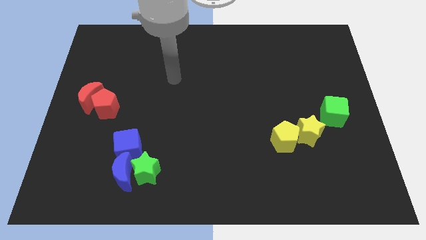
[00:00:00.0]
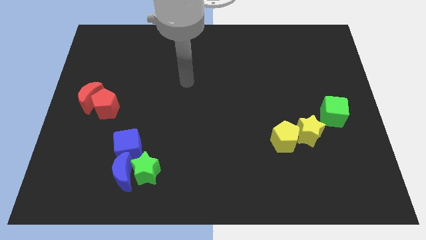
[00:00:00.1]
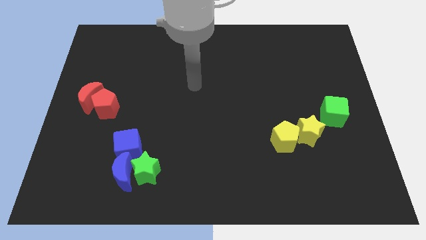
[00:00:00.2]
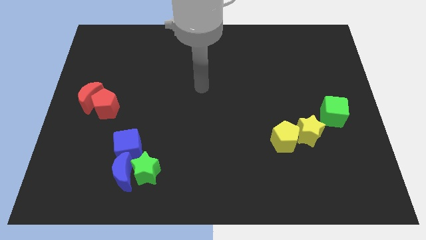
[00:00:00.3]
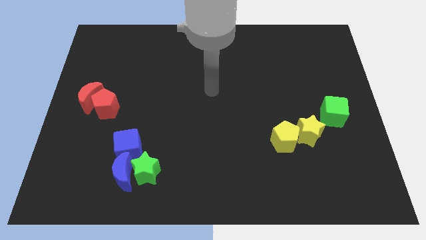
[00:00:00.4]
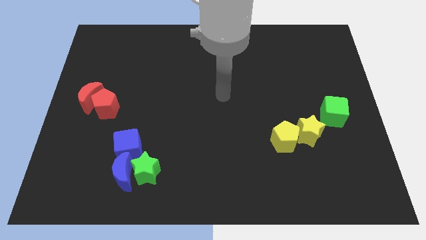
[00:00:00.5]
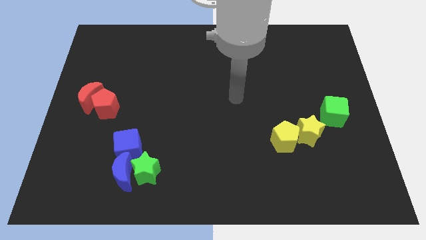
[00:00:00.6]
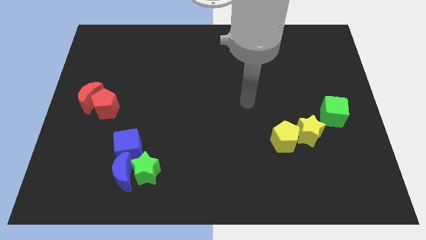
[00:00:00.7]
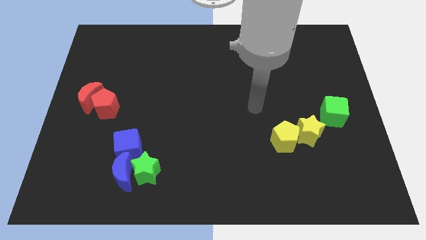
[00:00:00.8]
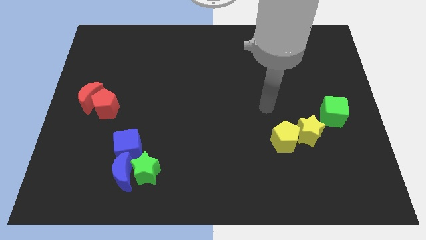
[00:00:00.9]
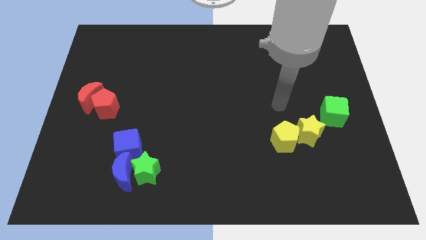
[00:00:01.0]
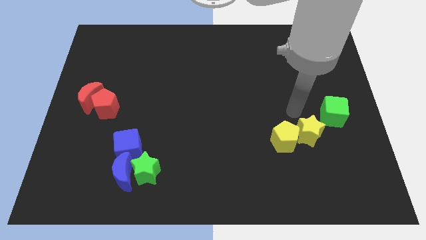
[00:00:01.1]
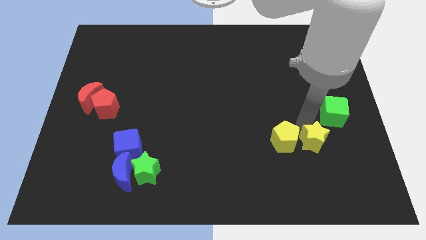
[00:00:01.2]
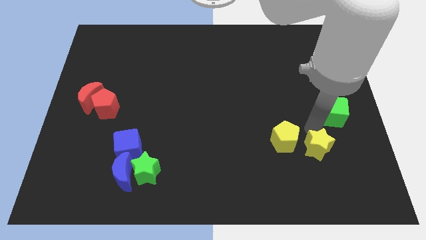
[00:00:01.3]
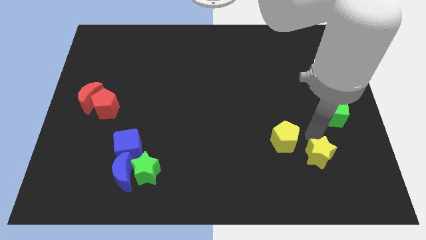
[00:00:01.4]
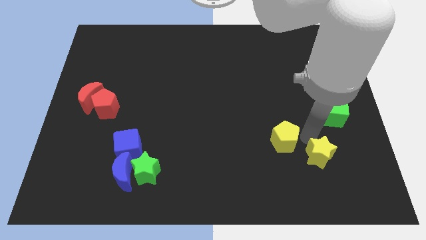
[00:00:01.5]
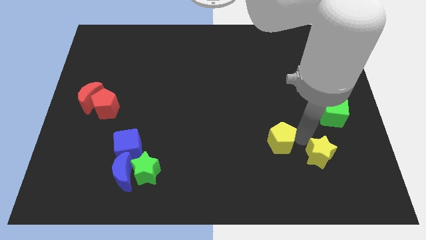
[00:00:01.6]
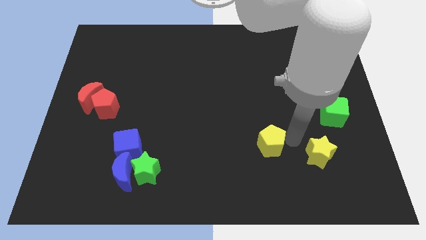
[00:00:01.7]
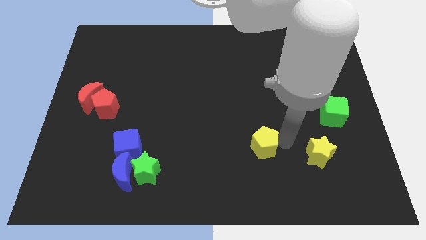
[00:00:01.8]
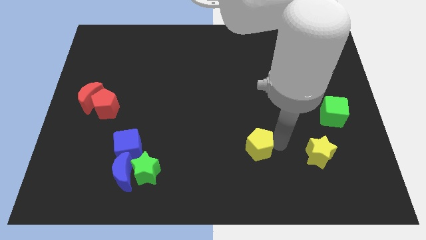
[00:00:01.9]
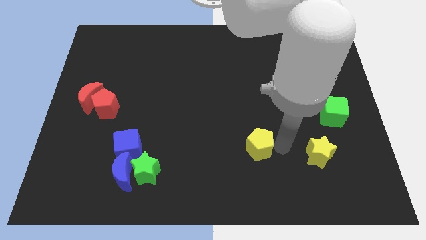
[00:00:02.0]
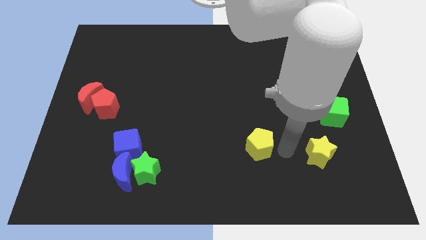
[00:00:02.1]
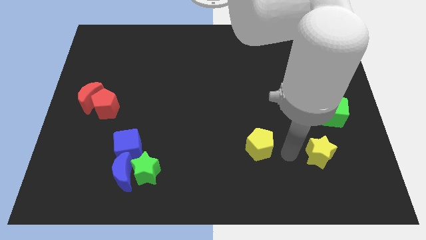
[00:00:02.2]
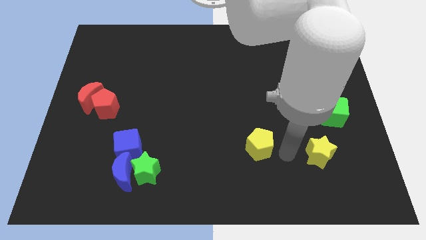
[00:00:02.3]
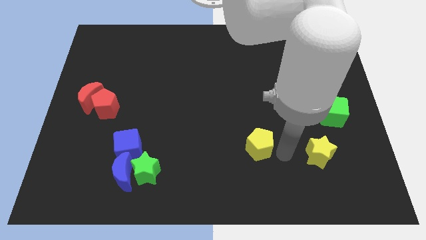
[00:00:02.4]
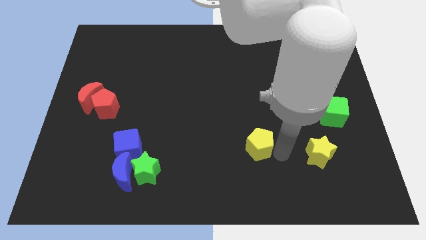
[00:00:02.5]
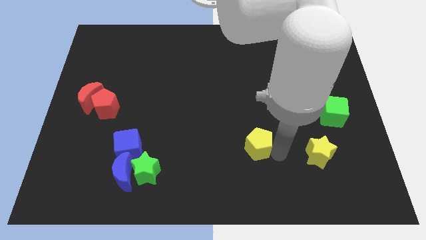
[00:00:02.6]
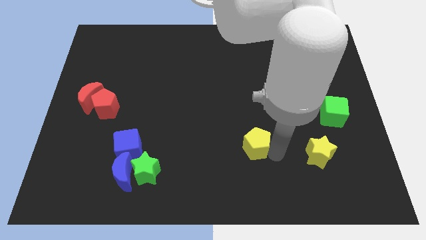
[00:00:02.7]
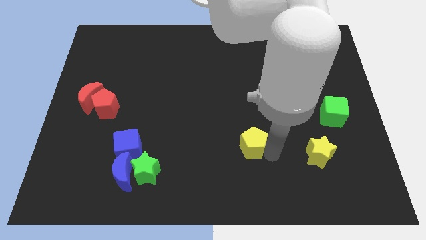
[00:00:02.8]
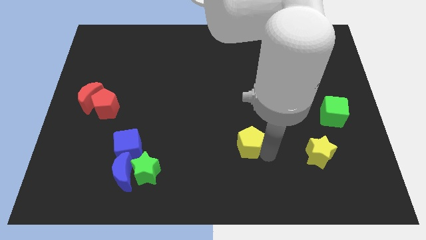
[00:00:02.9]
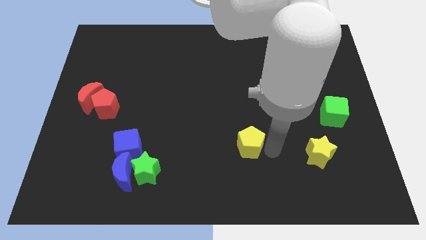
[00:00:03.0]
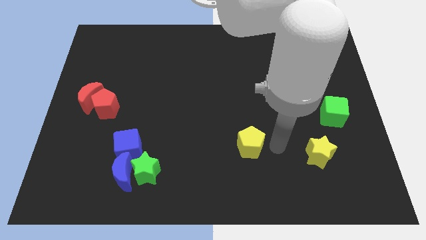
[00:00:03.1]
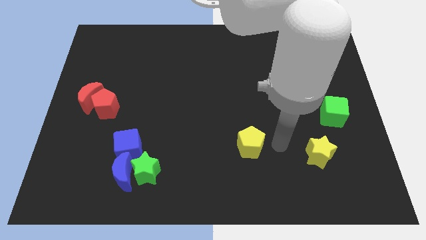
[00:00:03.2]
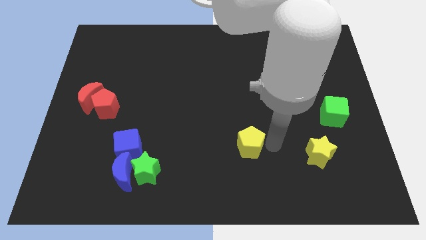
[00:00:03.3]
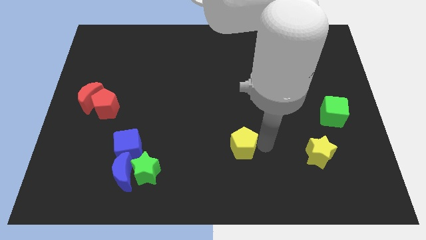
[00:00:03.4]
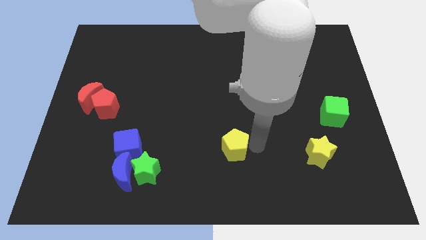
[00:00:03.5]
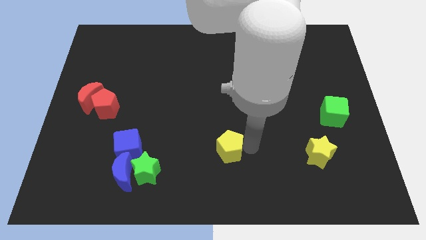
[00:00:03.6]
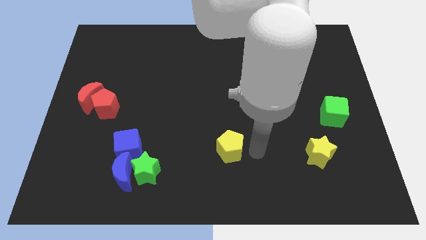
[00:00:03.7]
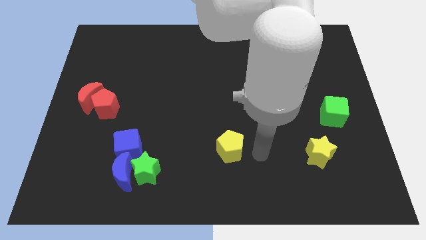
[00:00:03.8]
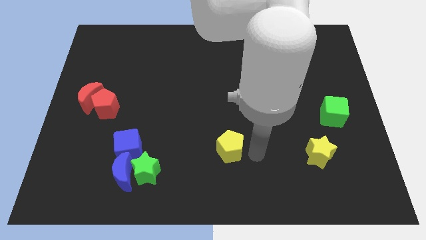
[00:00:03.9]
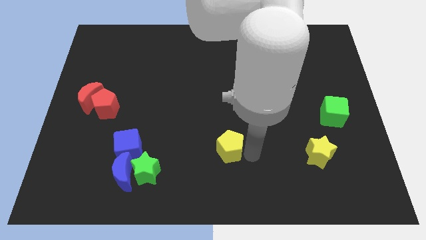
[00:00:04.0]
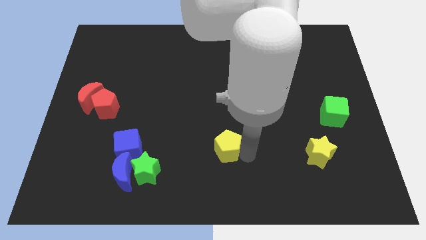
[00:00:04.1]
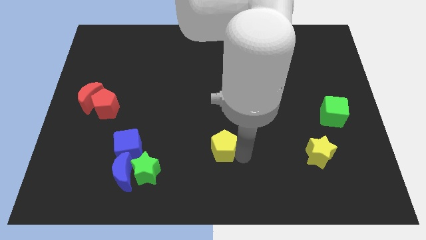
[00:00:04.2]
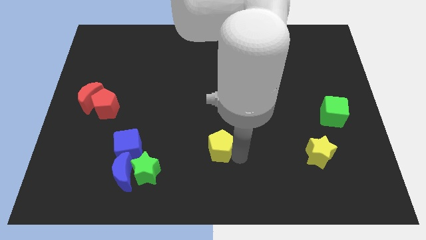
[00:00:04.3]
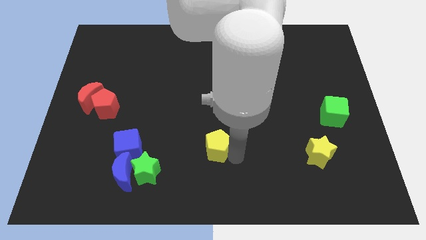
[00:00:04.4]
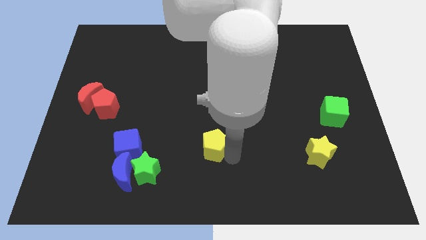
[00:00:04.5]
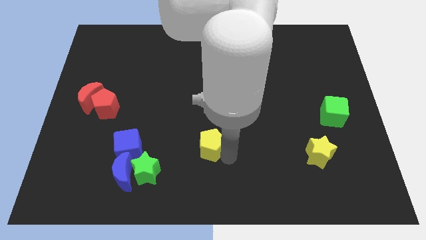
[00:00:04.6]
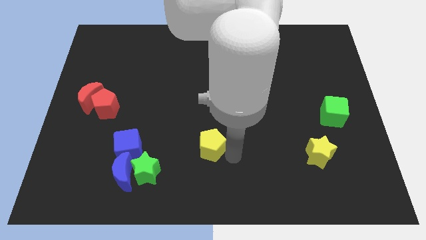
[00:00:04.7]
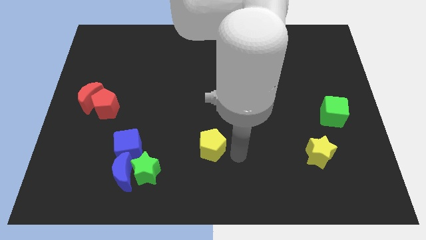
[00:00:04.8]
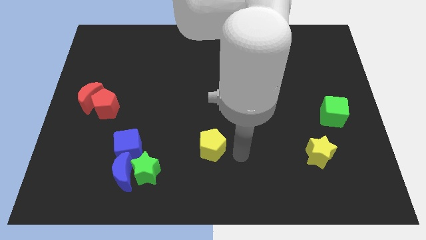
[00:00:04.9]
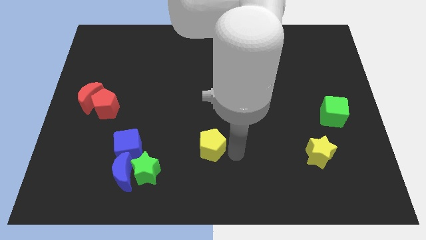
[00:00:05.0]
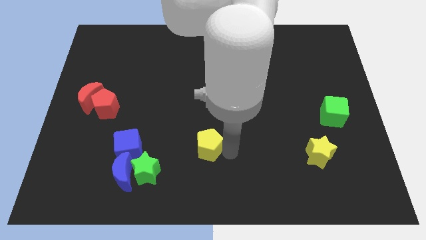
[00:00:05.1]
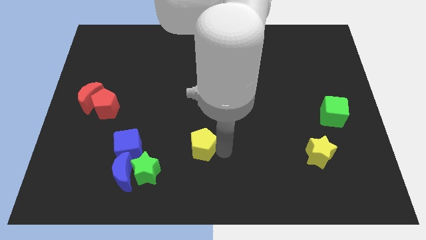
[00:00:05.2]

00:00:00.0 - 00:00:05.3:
put the yellow pentagon right of the blue cube

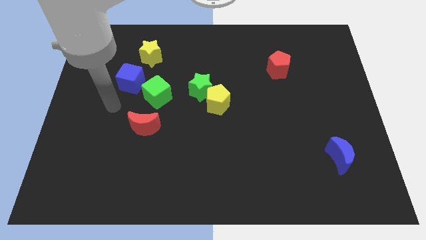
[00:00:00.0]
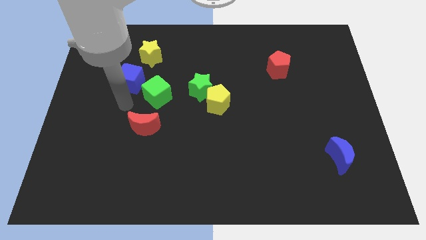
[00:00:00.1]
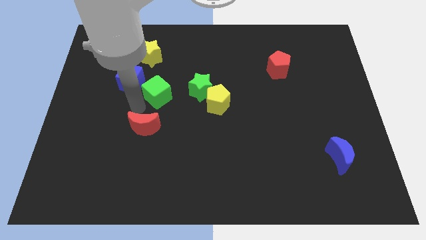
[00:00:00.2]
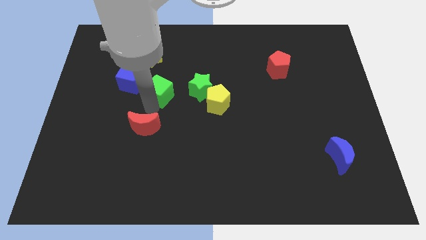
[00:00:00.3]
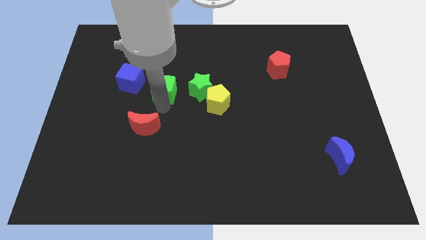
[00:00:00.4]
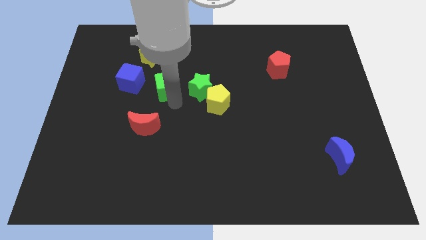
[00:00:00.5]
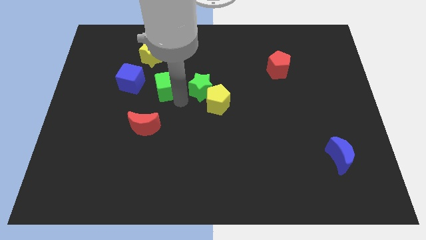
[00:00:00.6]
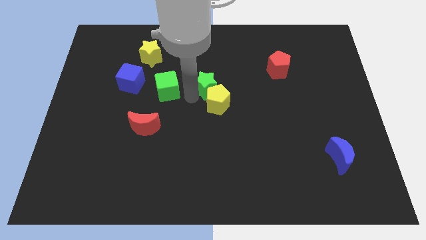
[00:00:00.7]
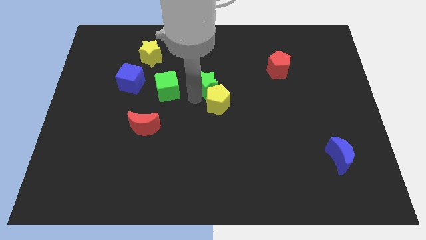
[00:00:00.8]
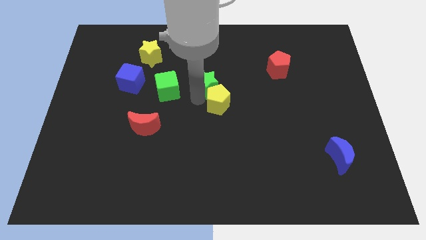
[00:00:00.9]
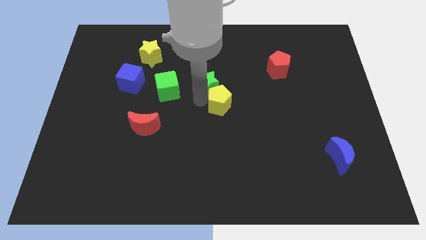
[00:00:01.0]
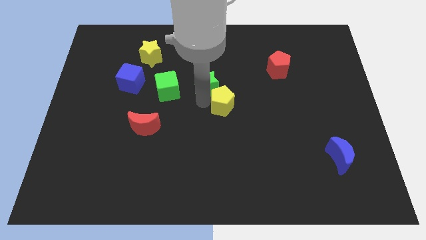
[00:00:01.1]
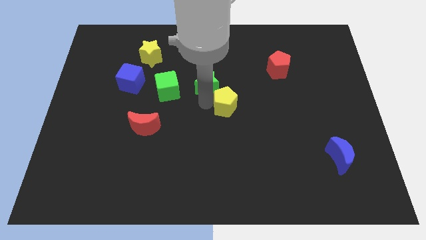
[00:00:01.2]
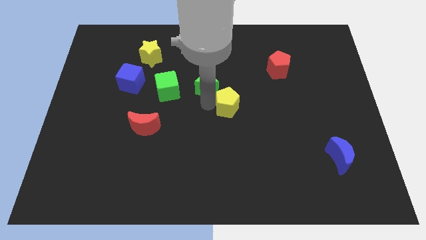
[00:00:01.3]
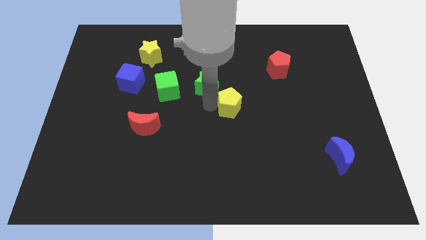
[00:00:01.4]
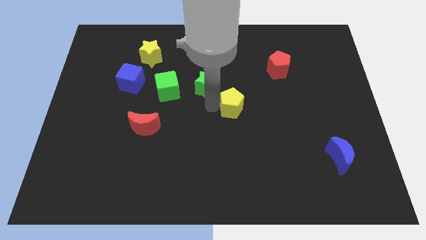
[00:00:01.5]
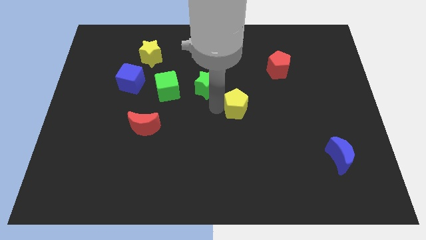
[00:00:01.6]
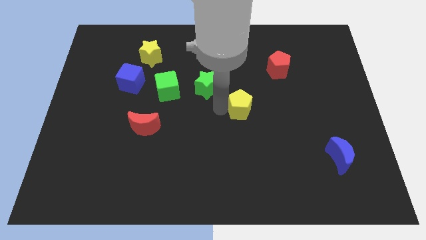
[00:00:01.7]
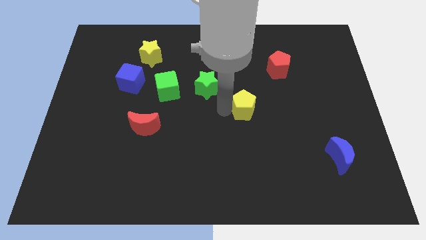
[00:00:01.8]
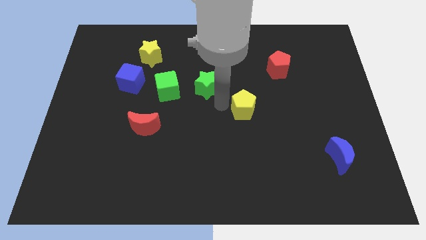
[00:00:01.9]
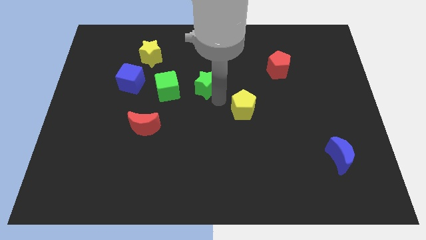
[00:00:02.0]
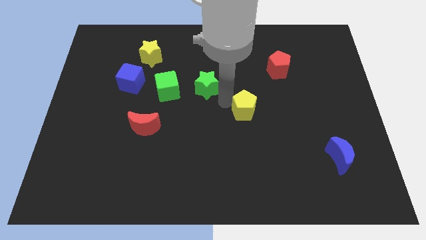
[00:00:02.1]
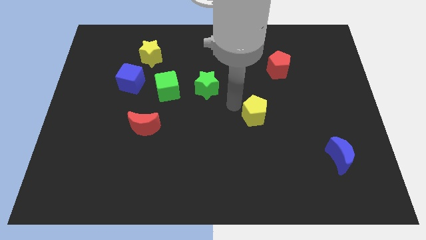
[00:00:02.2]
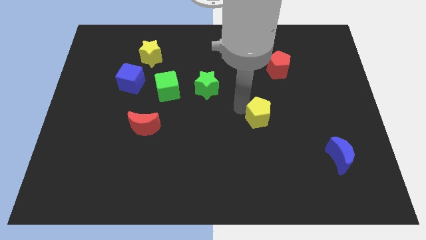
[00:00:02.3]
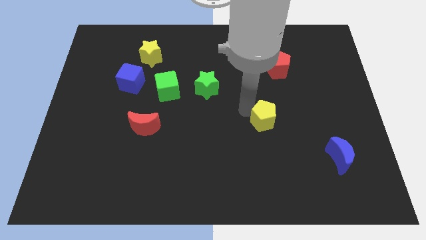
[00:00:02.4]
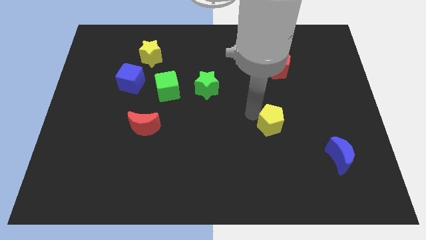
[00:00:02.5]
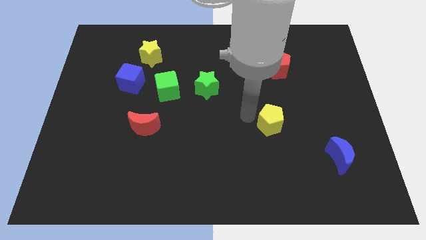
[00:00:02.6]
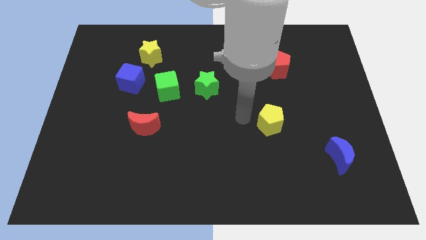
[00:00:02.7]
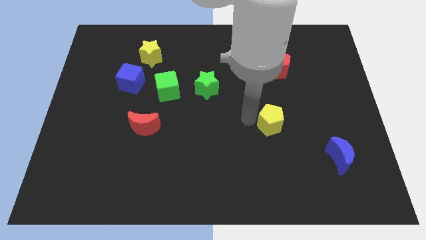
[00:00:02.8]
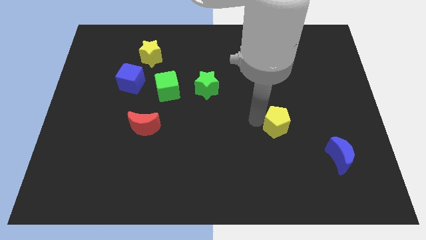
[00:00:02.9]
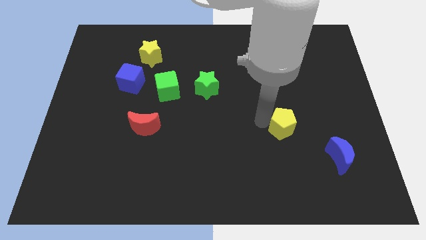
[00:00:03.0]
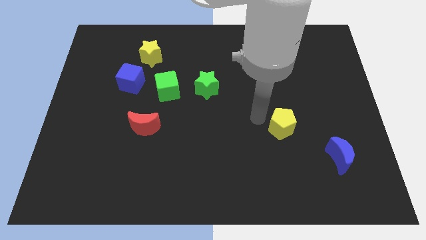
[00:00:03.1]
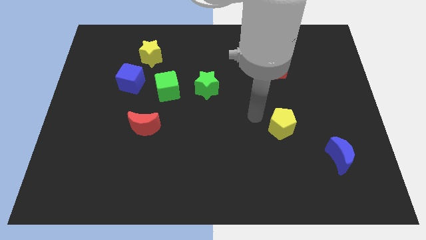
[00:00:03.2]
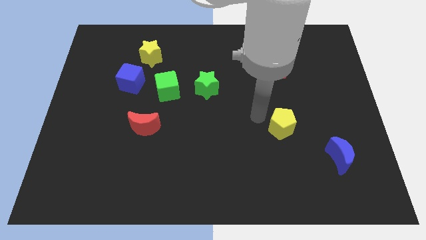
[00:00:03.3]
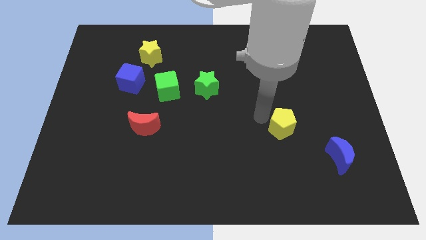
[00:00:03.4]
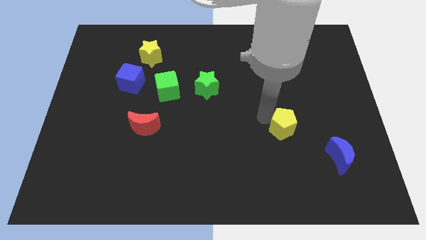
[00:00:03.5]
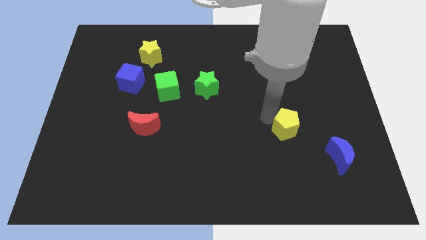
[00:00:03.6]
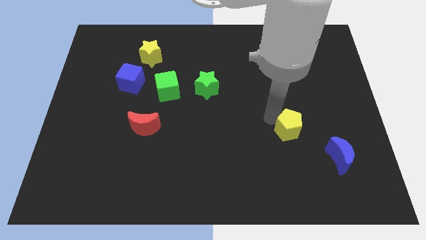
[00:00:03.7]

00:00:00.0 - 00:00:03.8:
slide the yellow pentagon to the top left of the blue moon
